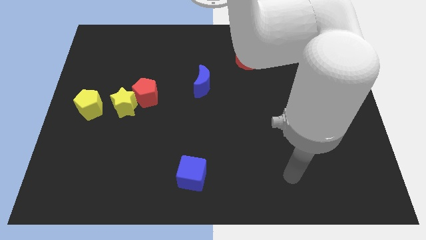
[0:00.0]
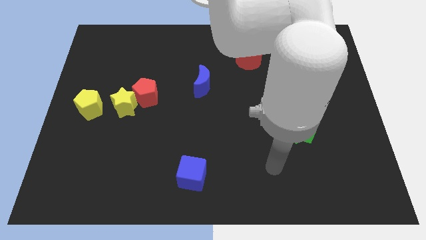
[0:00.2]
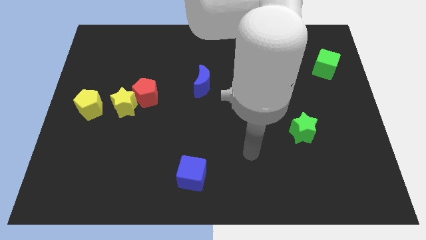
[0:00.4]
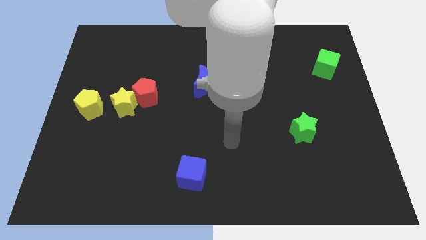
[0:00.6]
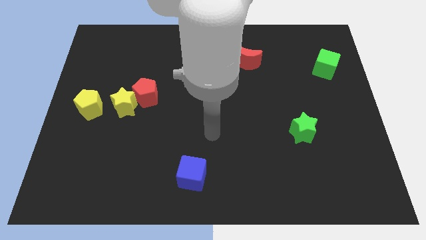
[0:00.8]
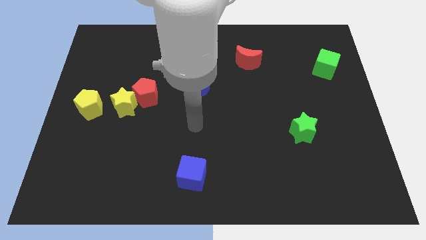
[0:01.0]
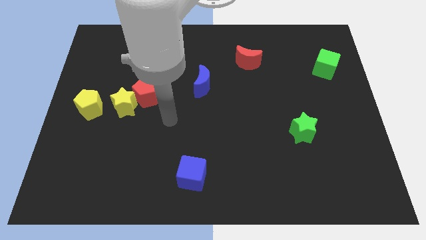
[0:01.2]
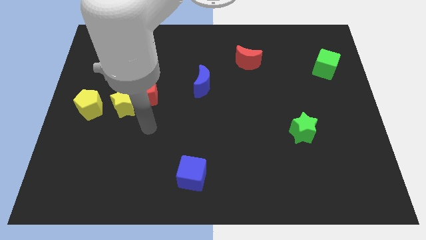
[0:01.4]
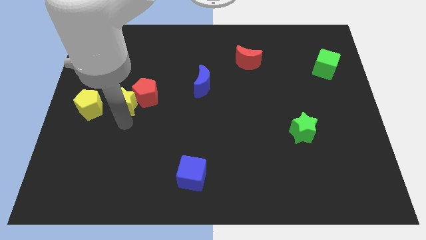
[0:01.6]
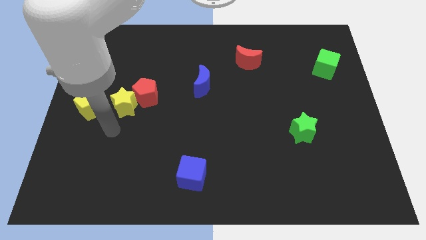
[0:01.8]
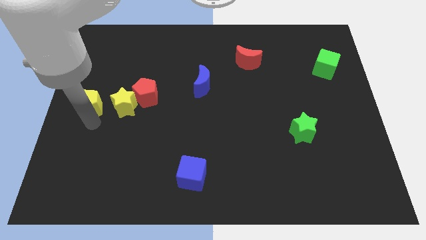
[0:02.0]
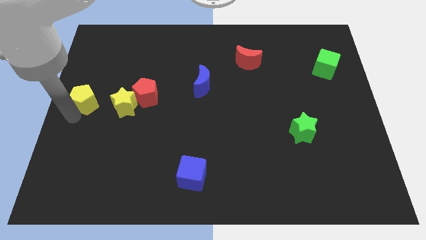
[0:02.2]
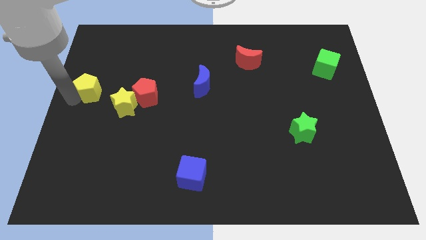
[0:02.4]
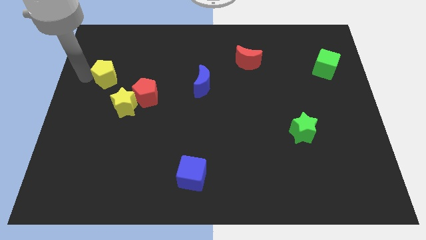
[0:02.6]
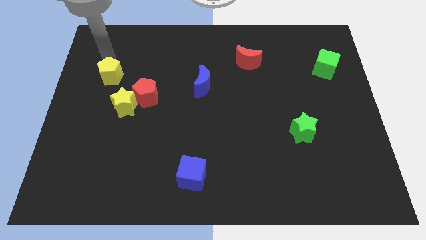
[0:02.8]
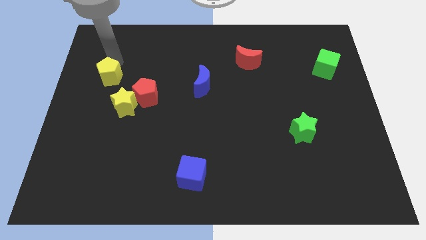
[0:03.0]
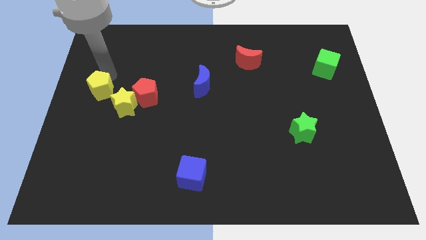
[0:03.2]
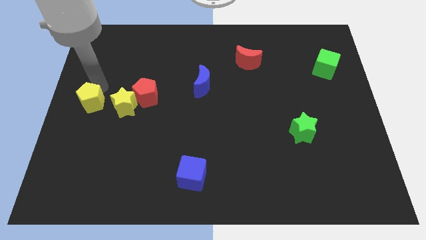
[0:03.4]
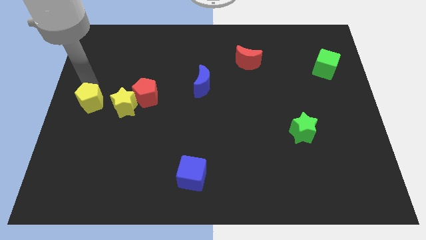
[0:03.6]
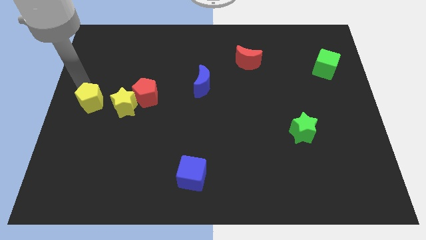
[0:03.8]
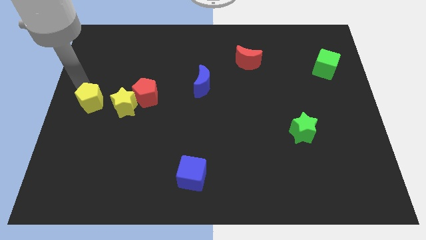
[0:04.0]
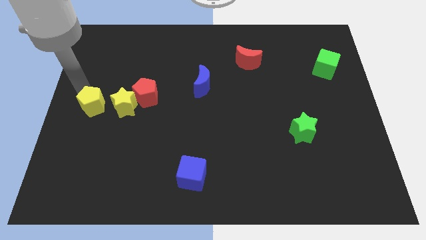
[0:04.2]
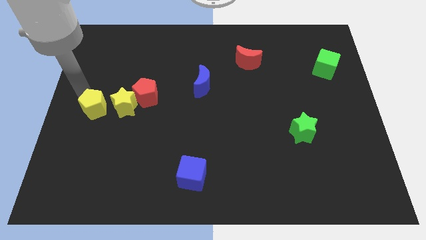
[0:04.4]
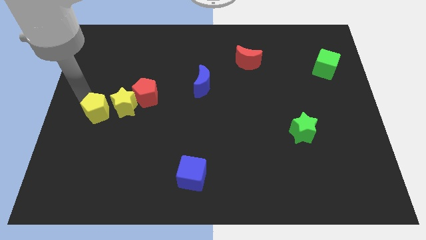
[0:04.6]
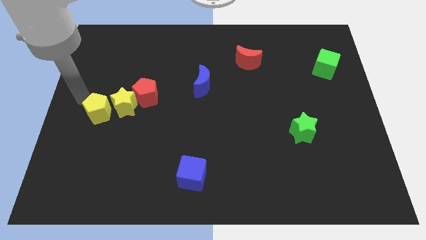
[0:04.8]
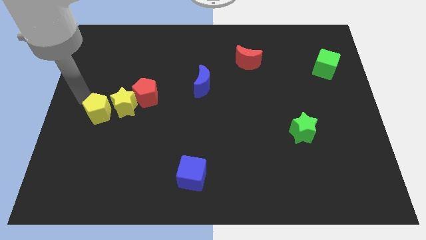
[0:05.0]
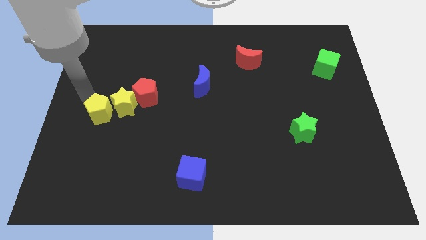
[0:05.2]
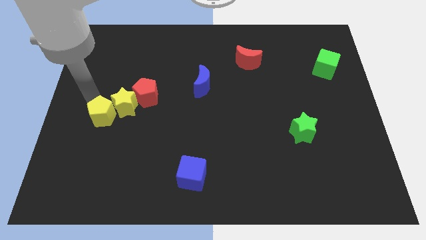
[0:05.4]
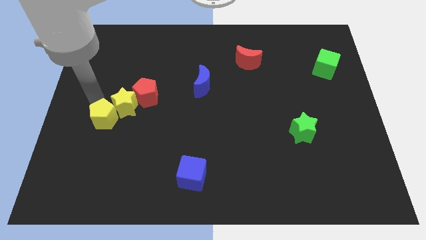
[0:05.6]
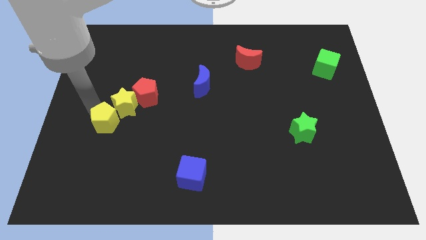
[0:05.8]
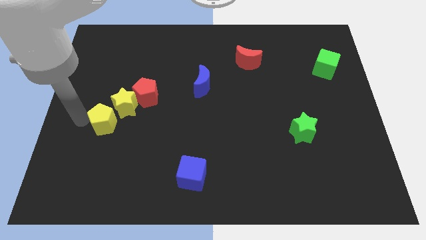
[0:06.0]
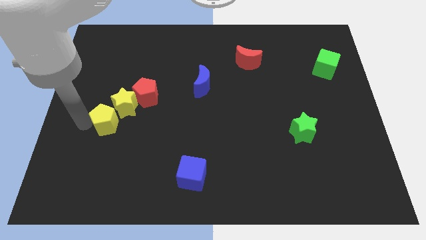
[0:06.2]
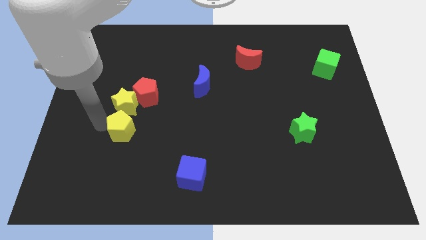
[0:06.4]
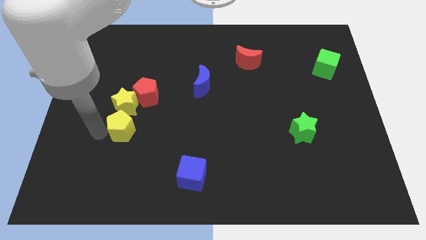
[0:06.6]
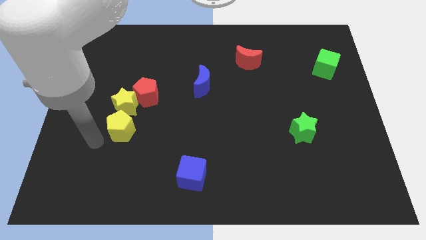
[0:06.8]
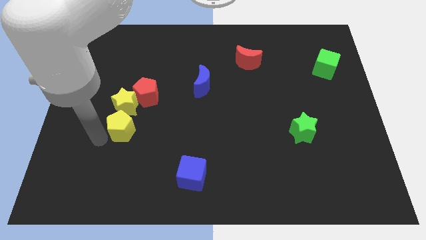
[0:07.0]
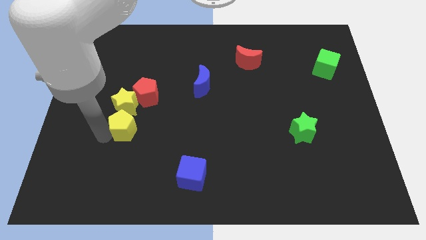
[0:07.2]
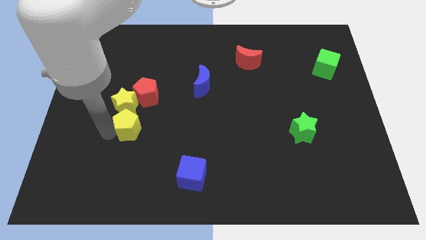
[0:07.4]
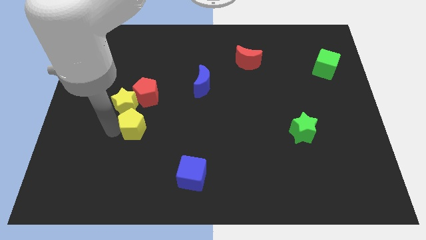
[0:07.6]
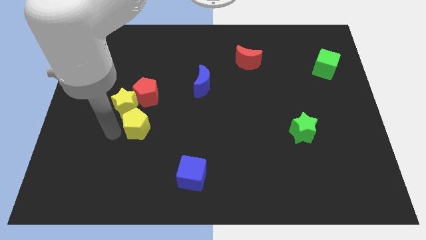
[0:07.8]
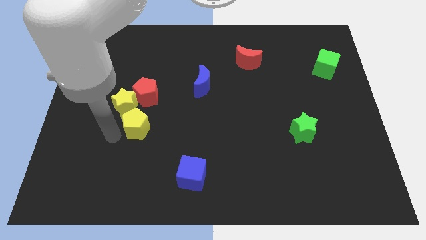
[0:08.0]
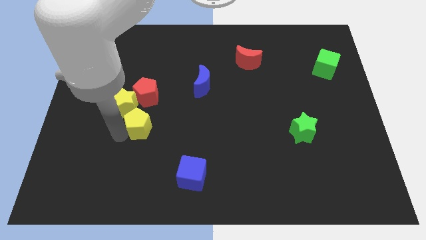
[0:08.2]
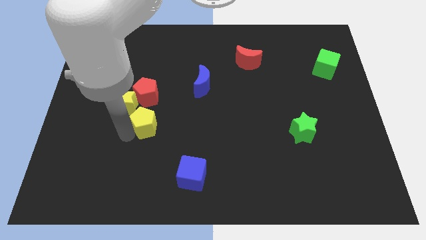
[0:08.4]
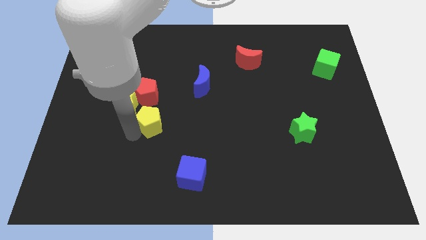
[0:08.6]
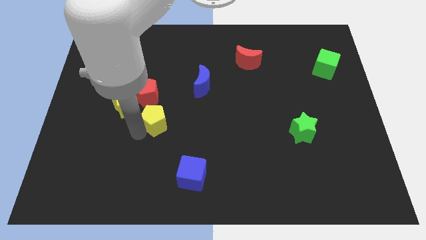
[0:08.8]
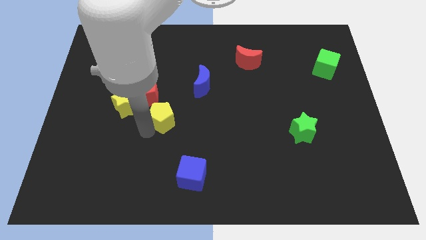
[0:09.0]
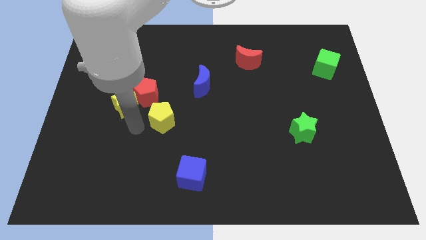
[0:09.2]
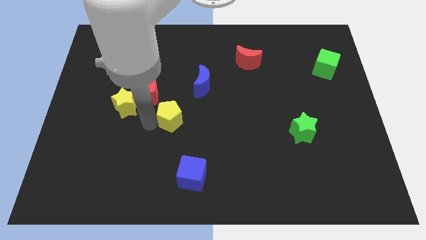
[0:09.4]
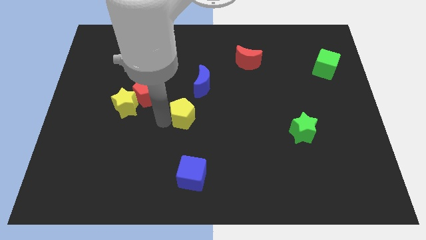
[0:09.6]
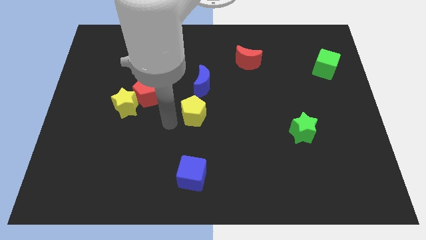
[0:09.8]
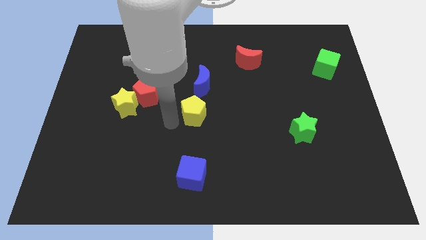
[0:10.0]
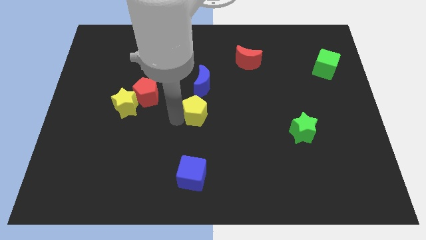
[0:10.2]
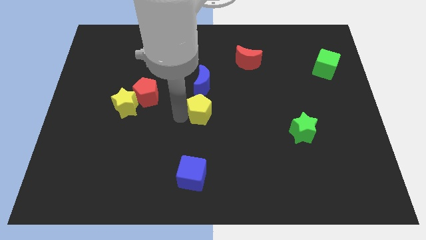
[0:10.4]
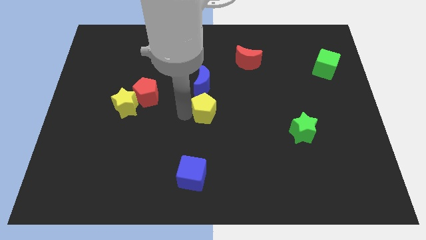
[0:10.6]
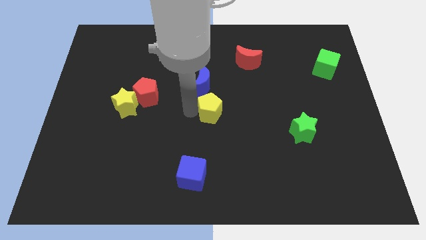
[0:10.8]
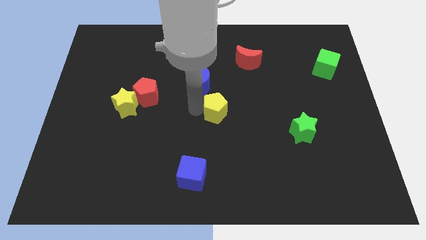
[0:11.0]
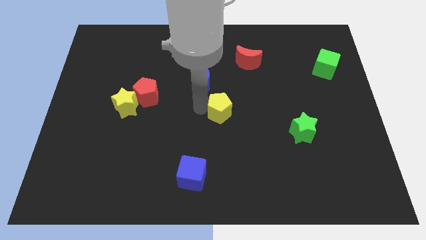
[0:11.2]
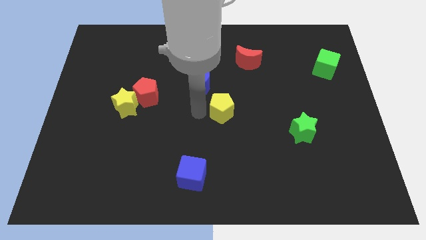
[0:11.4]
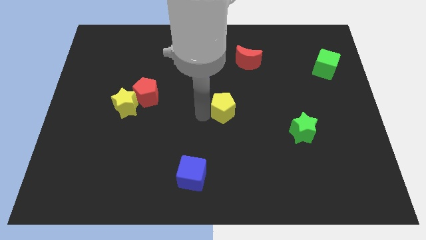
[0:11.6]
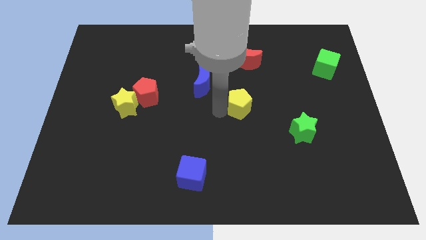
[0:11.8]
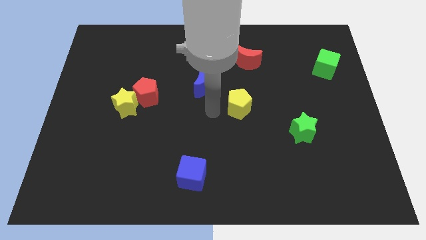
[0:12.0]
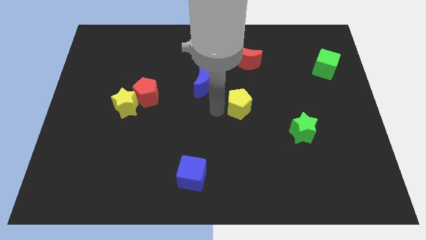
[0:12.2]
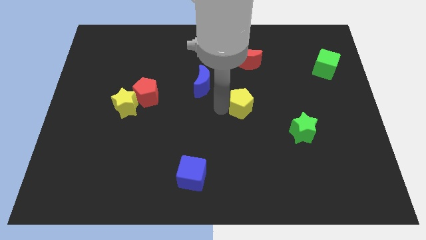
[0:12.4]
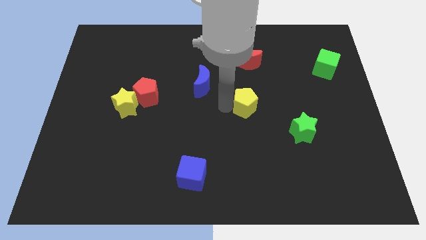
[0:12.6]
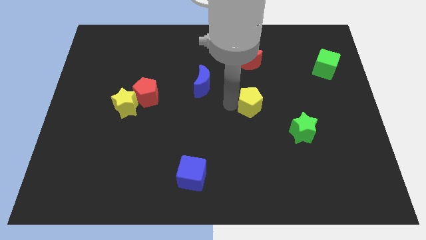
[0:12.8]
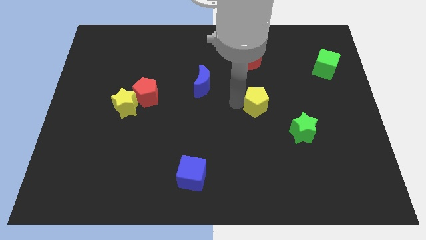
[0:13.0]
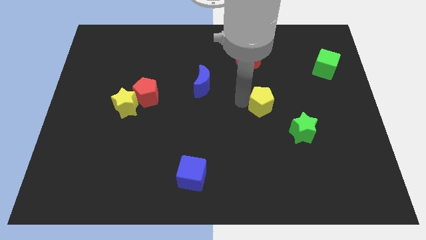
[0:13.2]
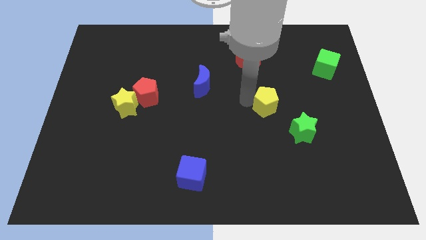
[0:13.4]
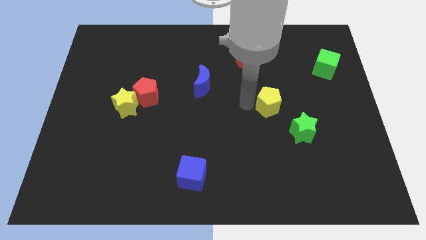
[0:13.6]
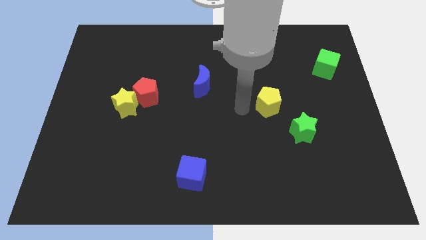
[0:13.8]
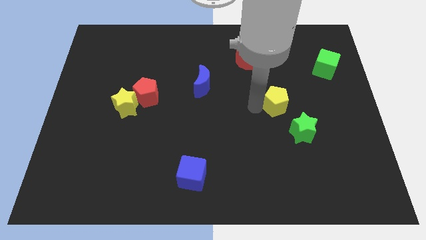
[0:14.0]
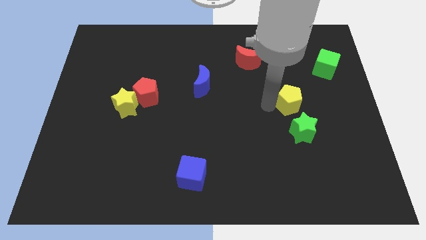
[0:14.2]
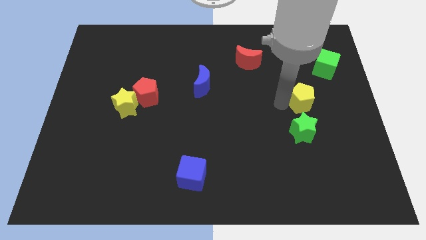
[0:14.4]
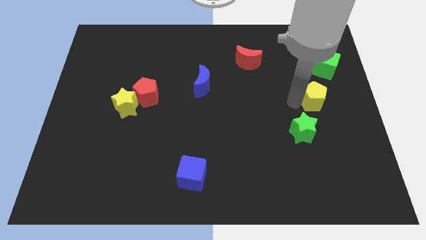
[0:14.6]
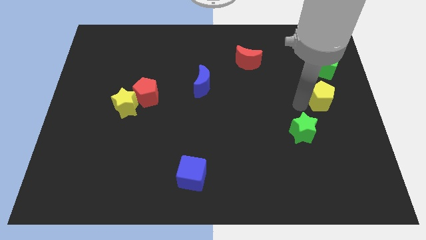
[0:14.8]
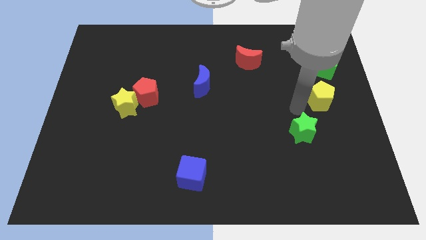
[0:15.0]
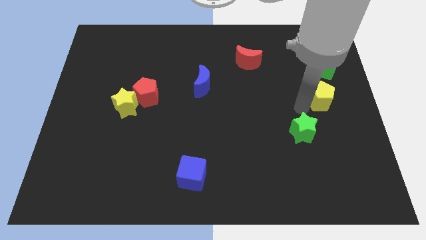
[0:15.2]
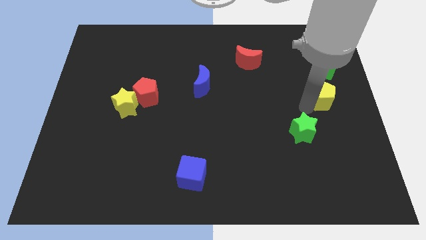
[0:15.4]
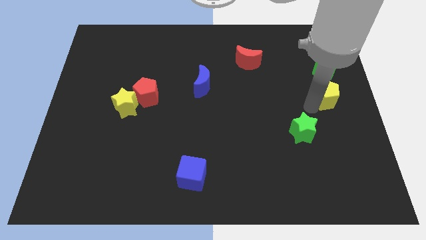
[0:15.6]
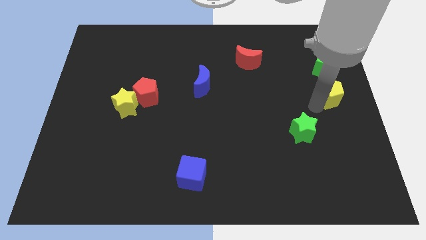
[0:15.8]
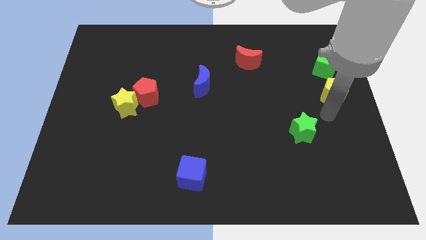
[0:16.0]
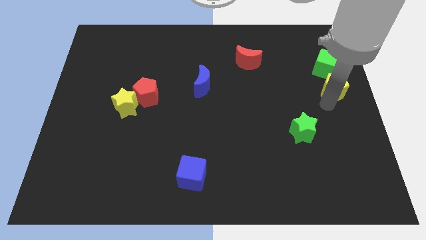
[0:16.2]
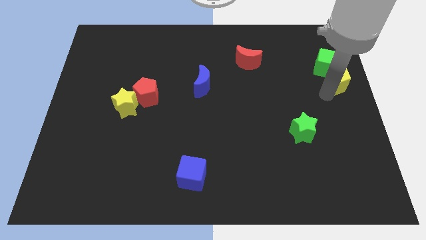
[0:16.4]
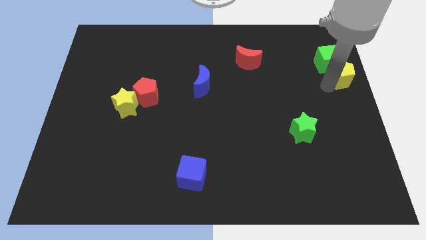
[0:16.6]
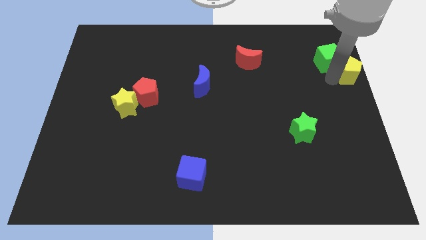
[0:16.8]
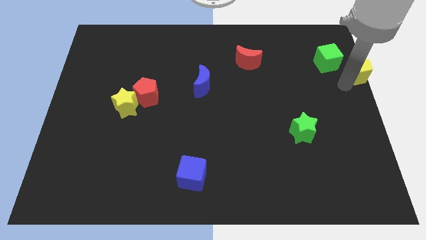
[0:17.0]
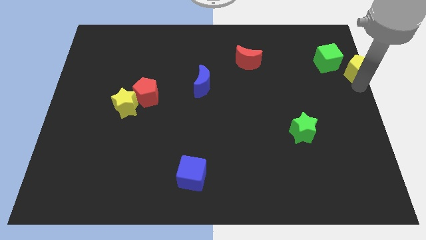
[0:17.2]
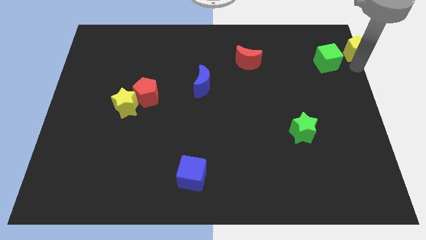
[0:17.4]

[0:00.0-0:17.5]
put the yellow pentagon to the top right corner
